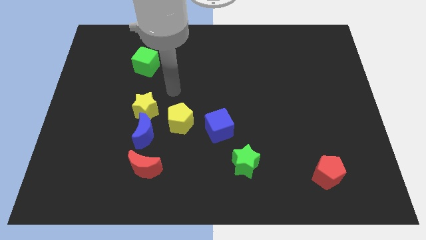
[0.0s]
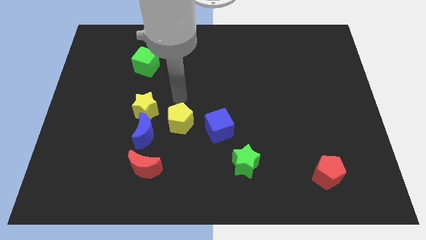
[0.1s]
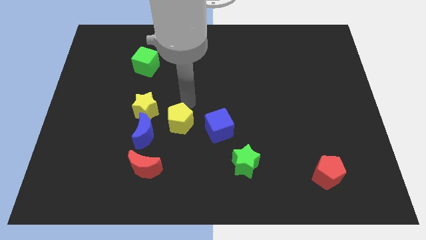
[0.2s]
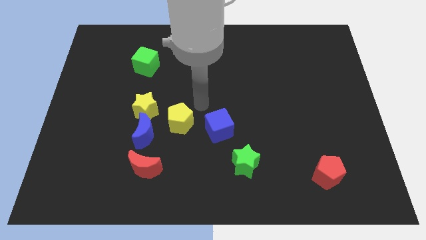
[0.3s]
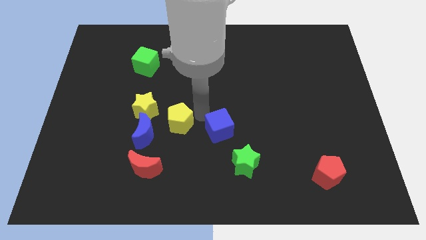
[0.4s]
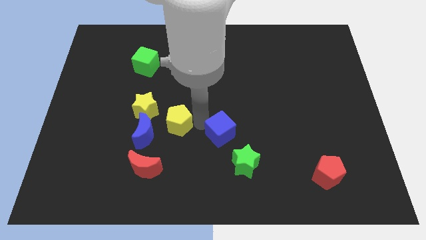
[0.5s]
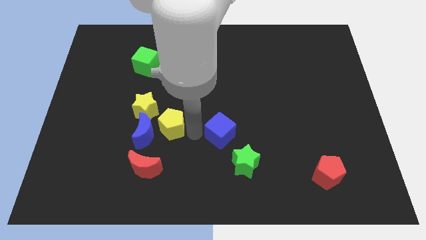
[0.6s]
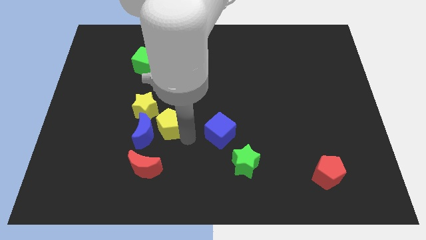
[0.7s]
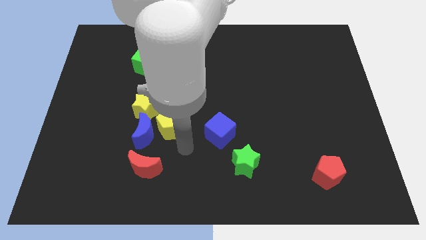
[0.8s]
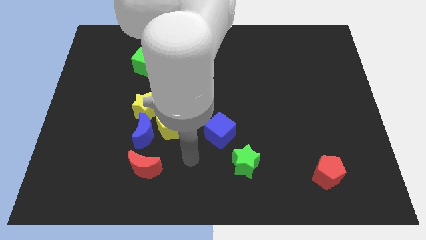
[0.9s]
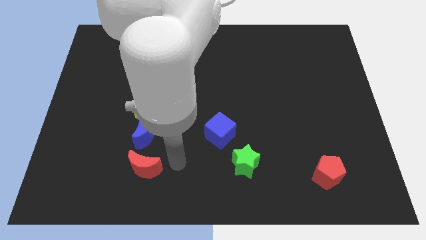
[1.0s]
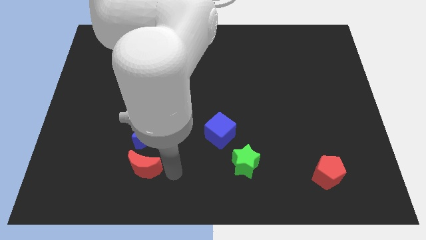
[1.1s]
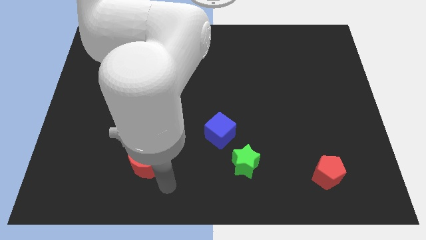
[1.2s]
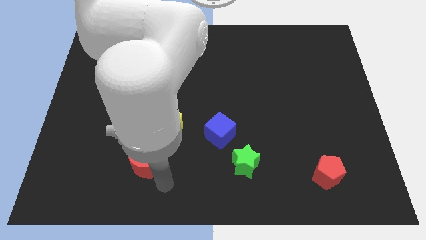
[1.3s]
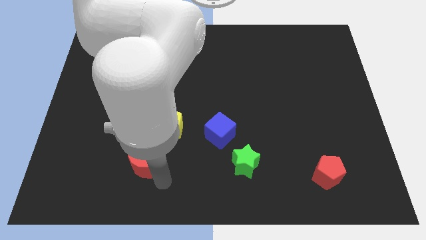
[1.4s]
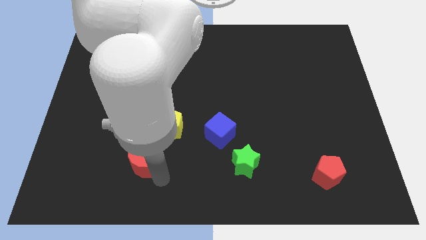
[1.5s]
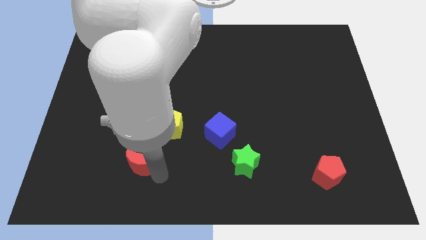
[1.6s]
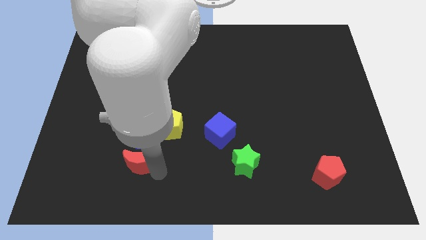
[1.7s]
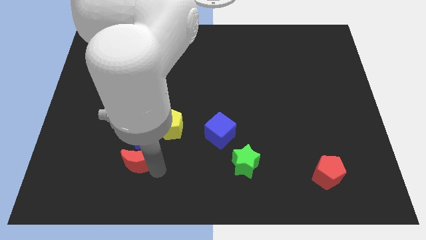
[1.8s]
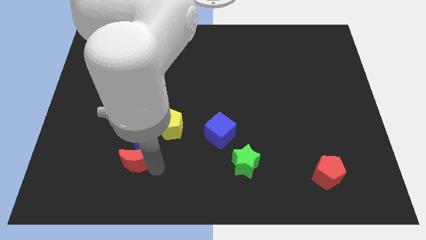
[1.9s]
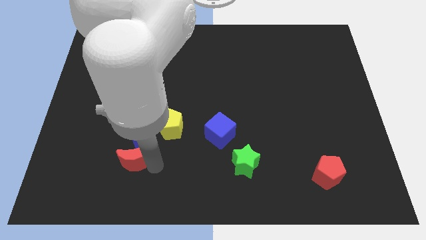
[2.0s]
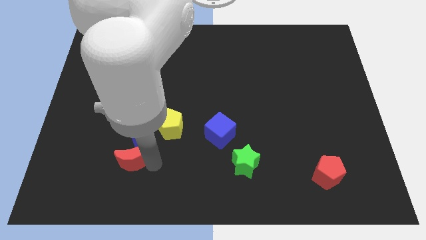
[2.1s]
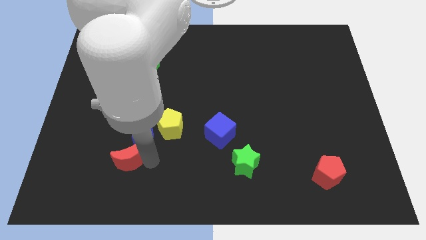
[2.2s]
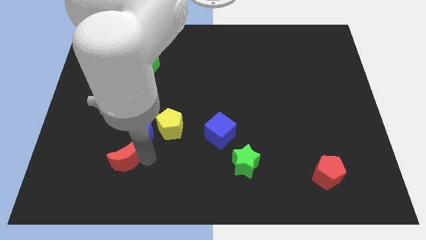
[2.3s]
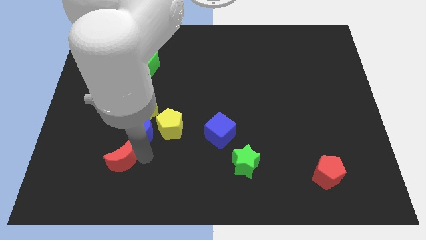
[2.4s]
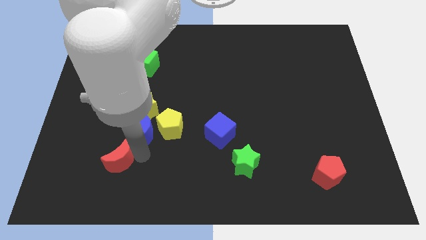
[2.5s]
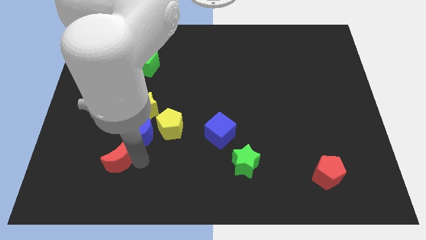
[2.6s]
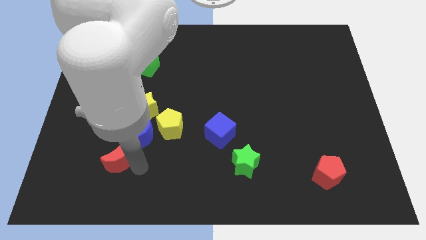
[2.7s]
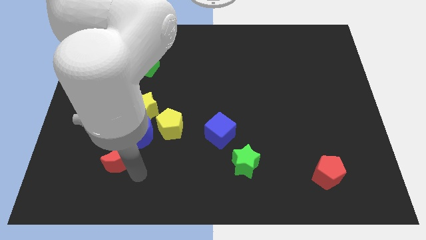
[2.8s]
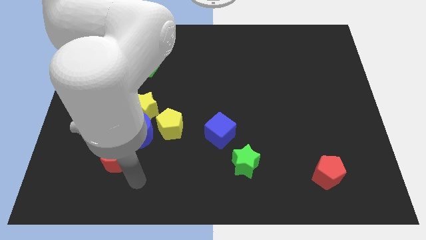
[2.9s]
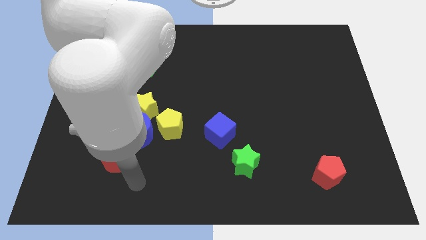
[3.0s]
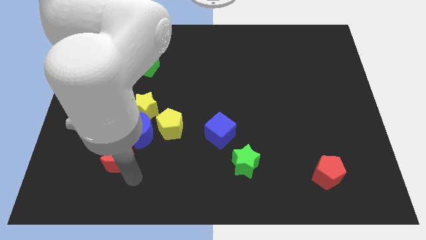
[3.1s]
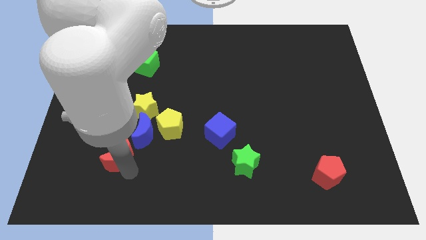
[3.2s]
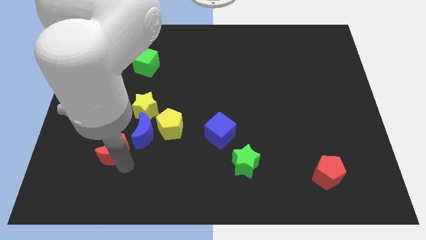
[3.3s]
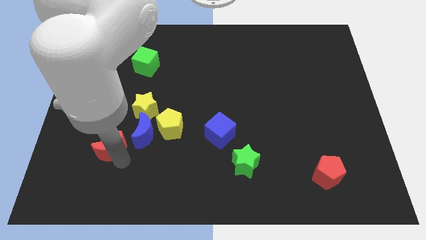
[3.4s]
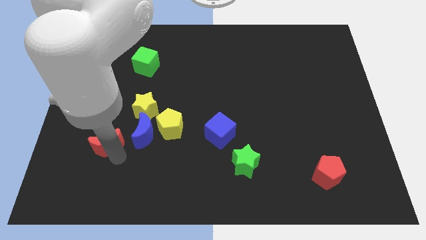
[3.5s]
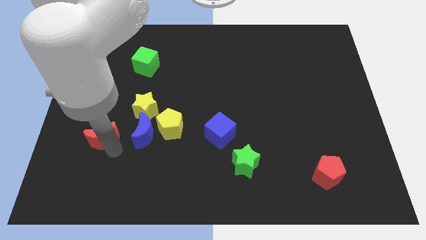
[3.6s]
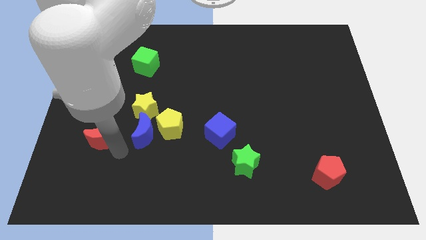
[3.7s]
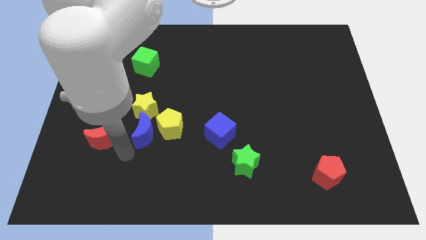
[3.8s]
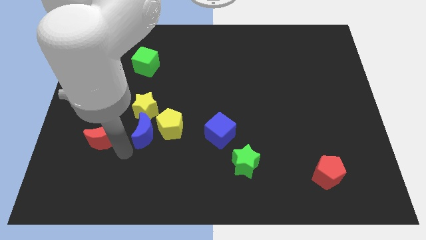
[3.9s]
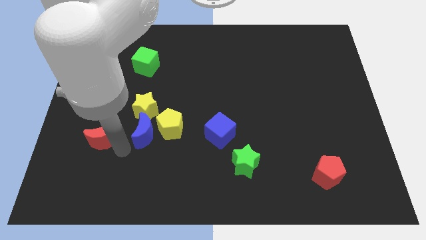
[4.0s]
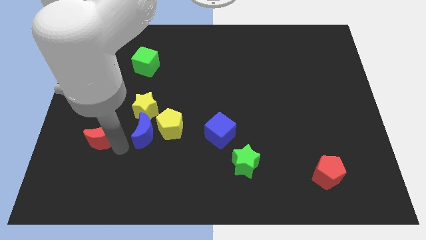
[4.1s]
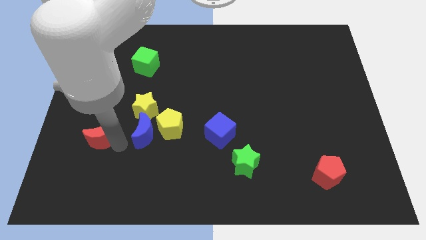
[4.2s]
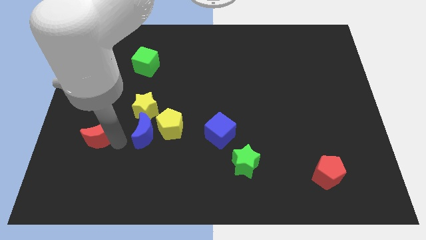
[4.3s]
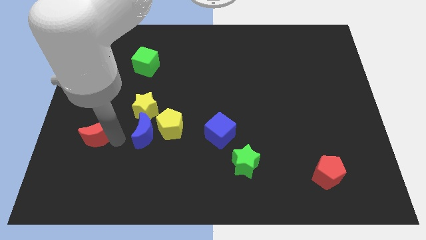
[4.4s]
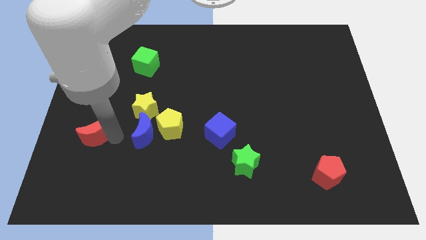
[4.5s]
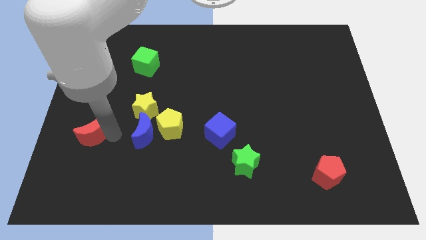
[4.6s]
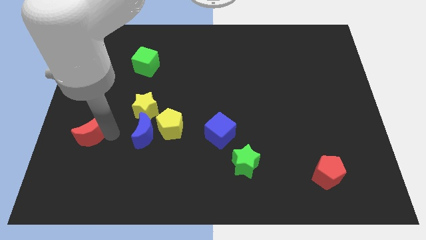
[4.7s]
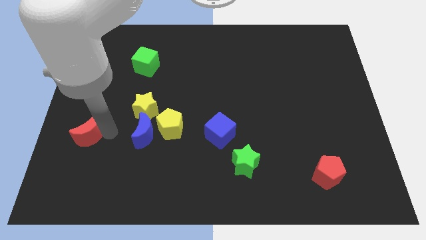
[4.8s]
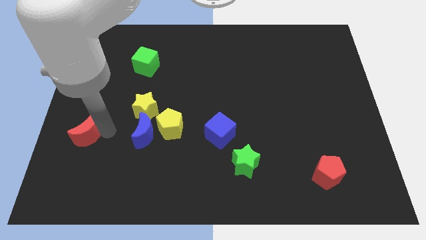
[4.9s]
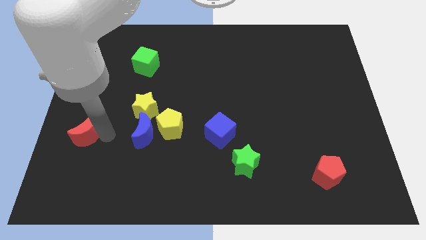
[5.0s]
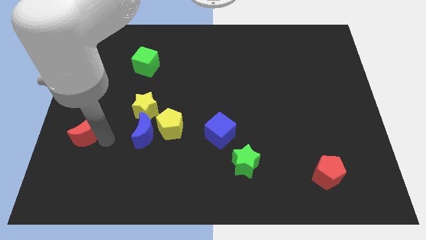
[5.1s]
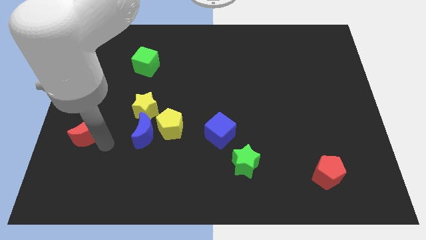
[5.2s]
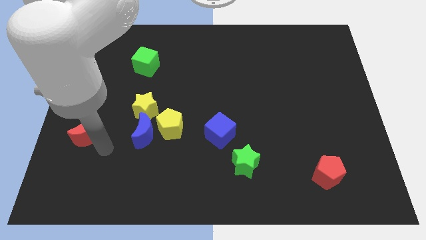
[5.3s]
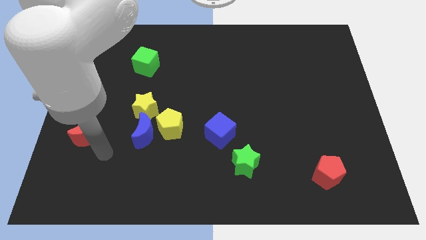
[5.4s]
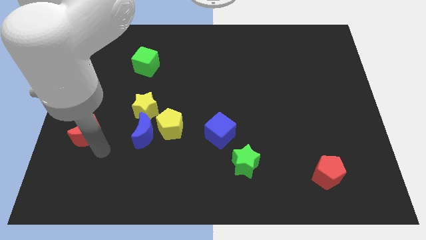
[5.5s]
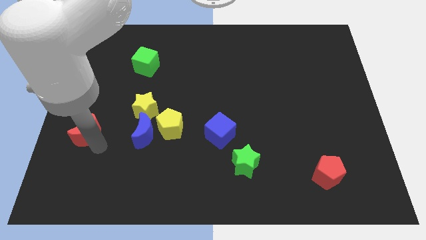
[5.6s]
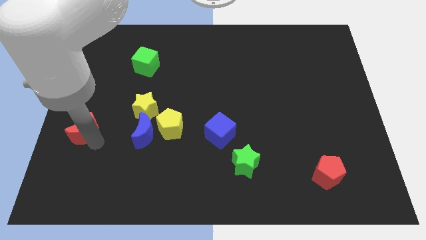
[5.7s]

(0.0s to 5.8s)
slide the red moon to the center left
